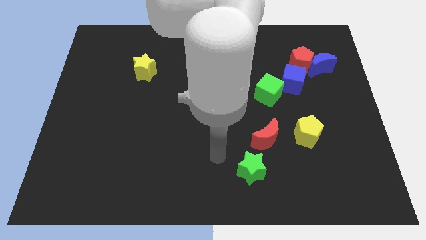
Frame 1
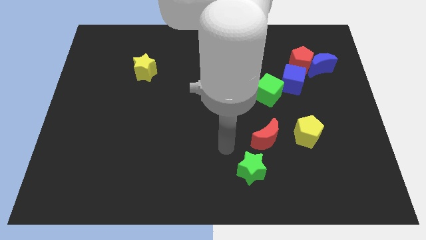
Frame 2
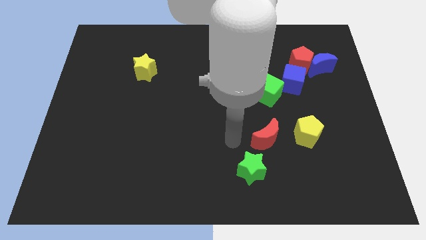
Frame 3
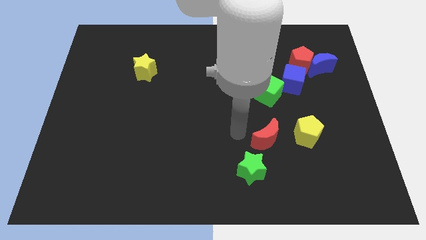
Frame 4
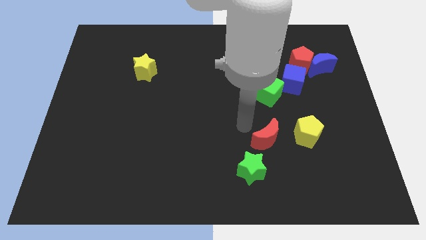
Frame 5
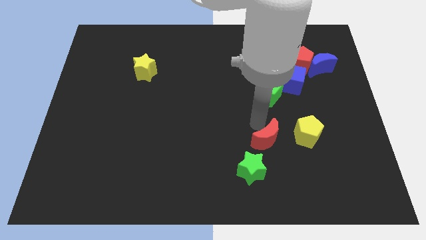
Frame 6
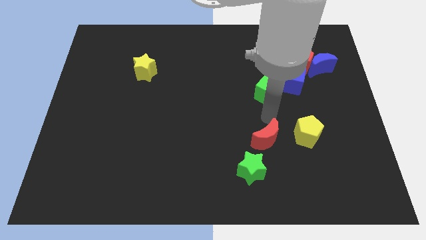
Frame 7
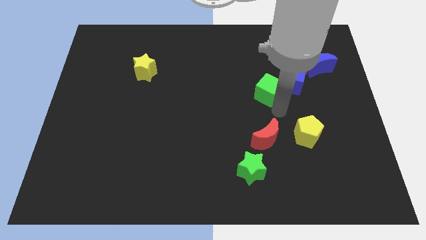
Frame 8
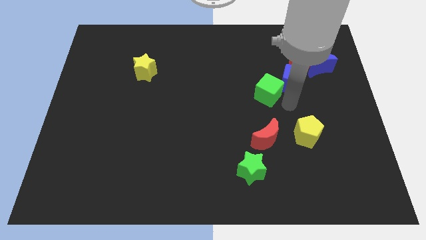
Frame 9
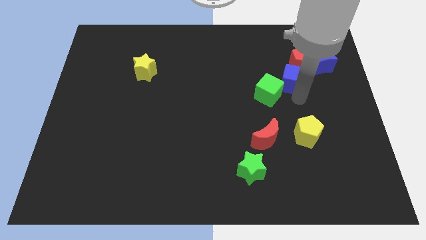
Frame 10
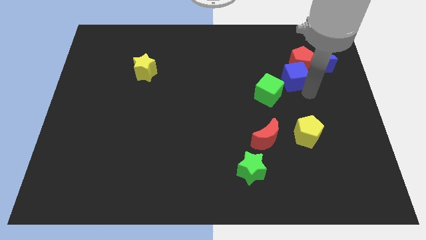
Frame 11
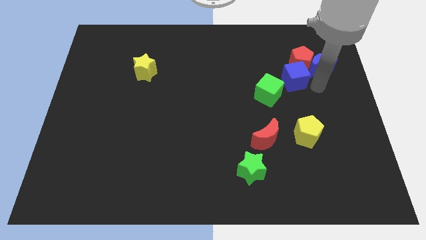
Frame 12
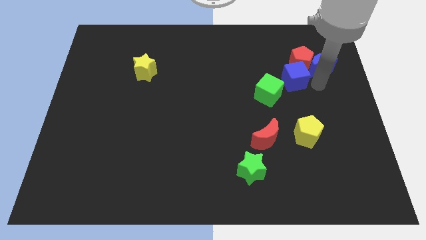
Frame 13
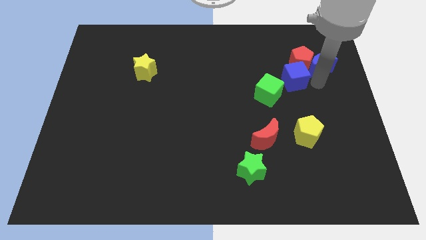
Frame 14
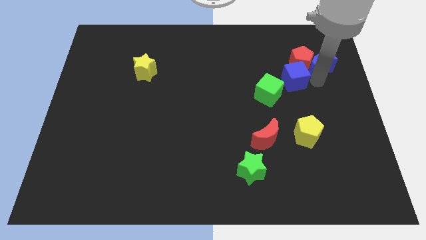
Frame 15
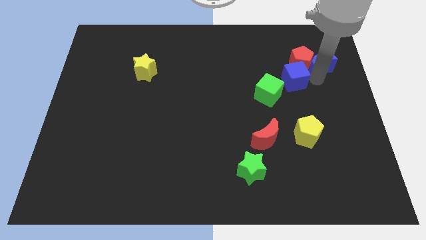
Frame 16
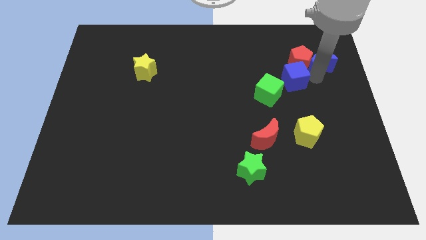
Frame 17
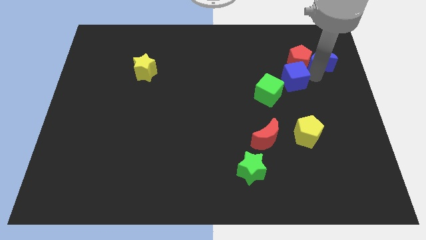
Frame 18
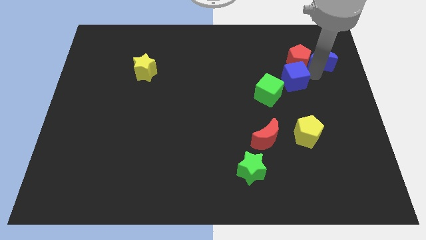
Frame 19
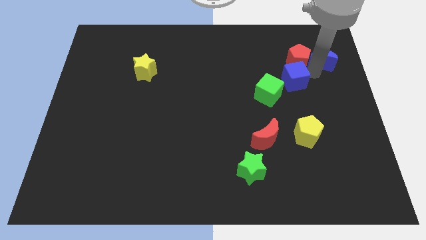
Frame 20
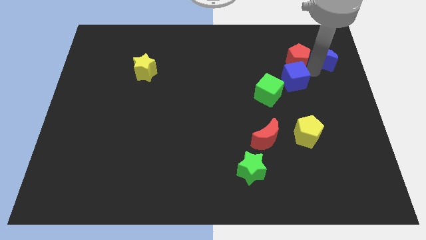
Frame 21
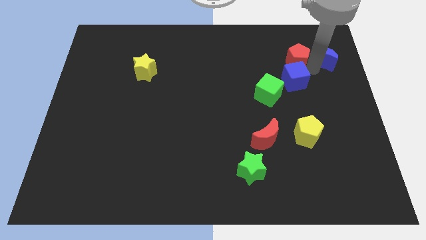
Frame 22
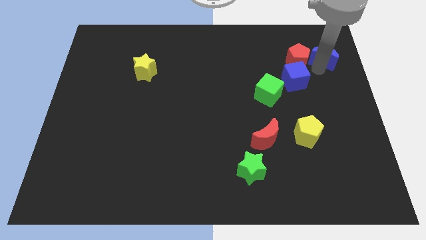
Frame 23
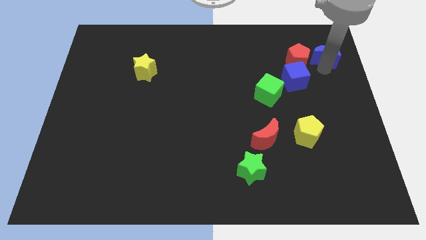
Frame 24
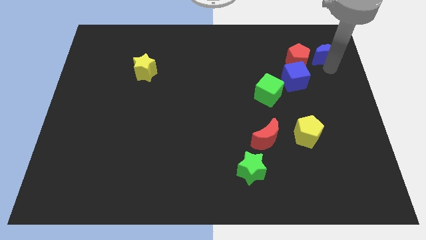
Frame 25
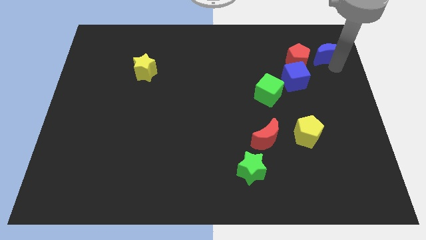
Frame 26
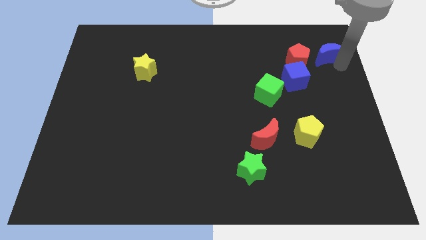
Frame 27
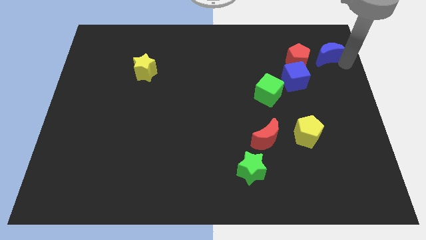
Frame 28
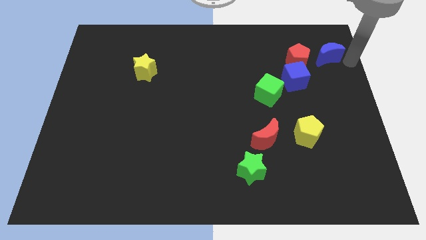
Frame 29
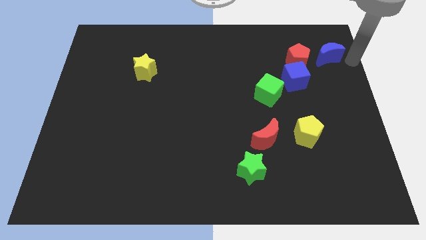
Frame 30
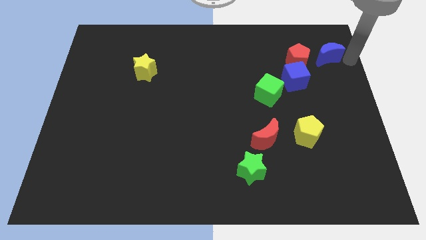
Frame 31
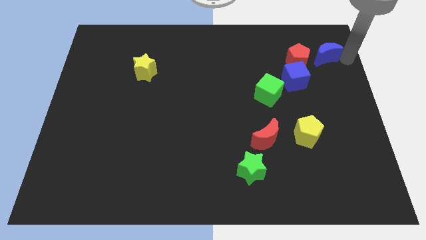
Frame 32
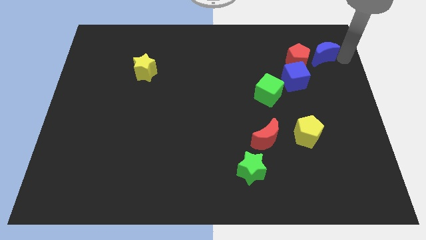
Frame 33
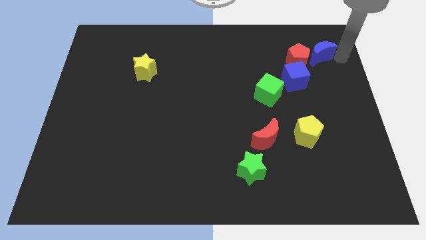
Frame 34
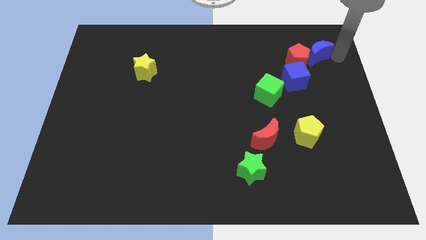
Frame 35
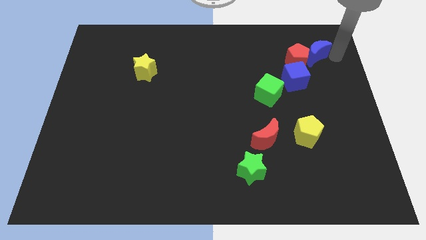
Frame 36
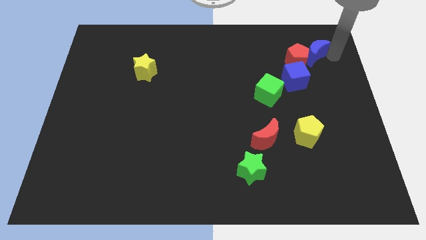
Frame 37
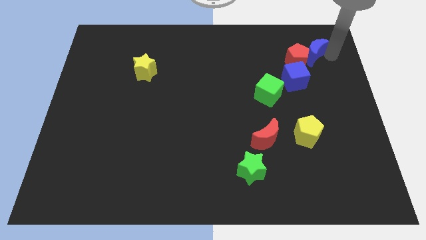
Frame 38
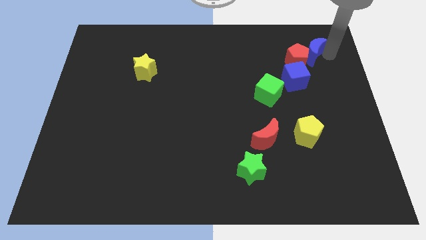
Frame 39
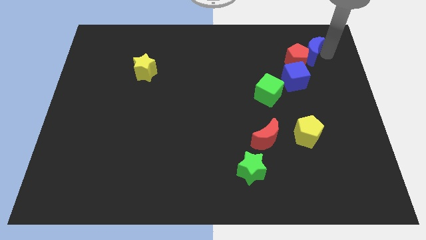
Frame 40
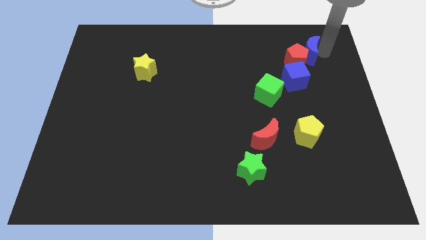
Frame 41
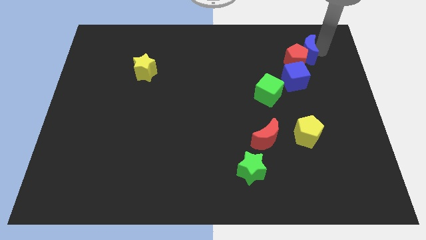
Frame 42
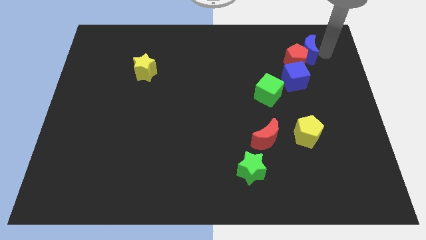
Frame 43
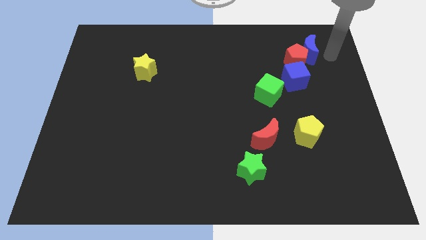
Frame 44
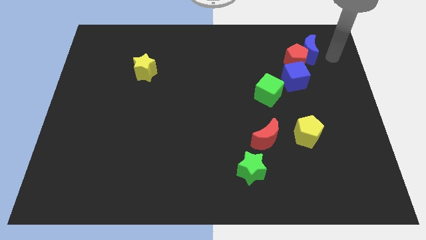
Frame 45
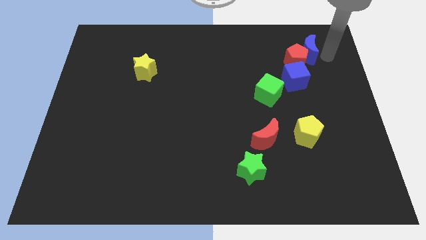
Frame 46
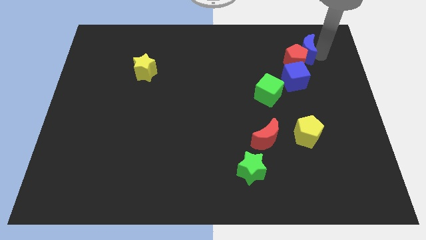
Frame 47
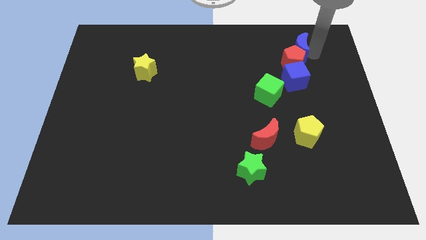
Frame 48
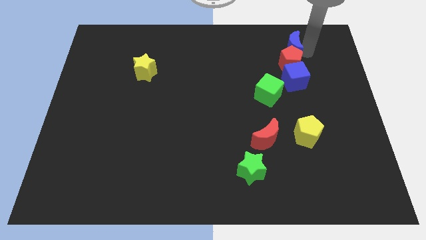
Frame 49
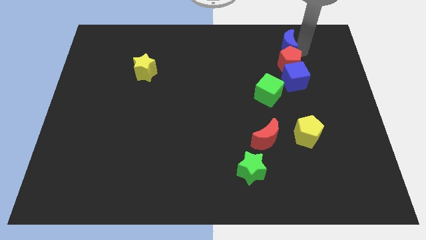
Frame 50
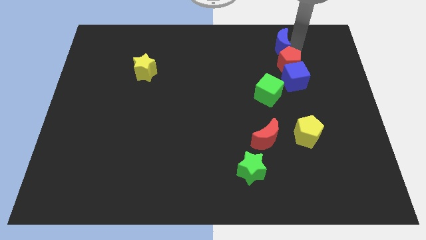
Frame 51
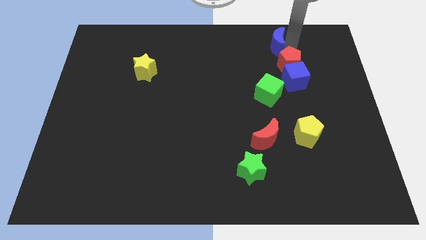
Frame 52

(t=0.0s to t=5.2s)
move the blue moon slightly to the left

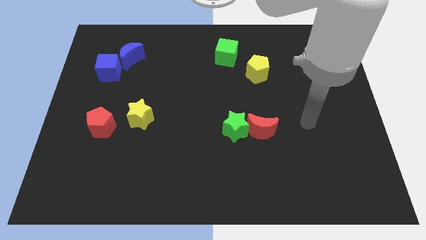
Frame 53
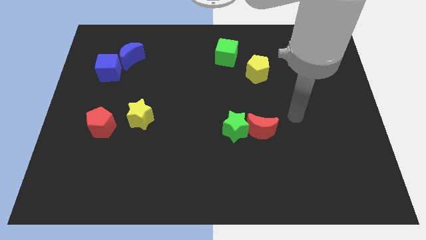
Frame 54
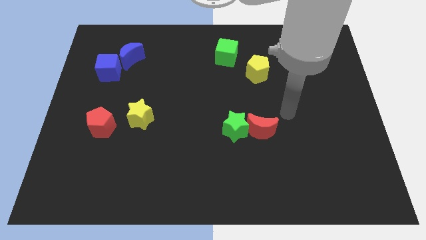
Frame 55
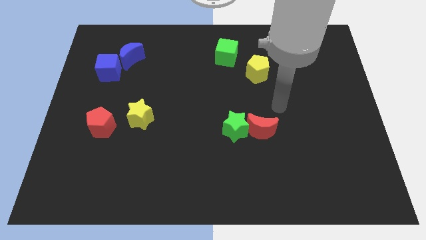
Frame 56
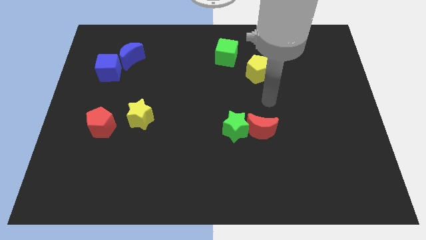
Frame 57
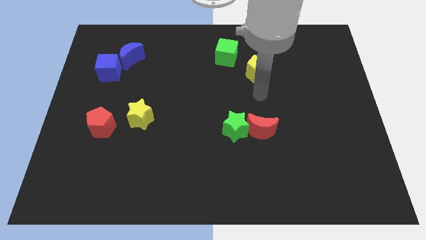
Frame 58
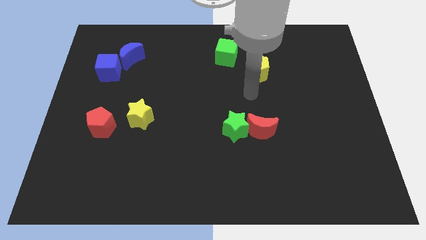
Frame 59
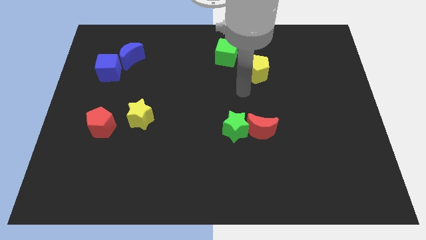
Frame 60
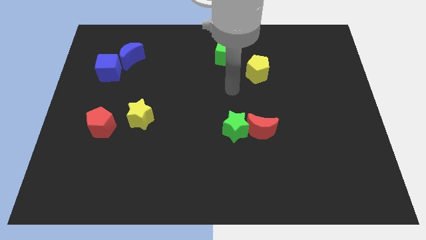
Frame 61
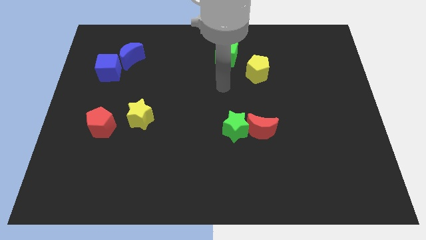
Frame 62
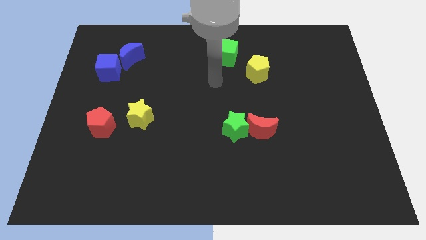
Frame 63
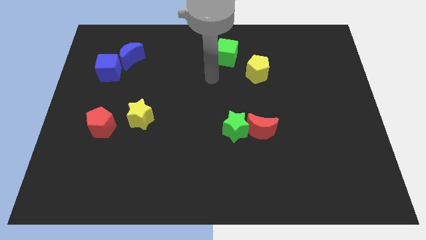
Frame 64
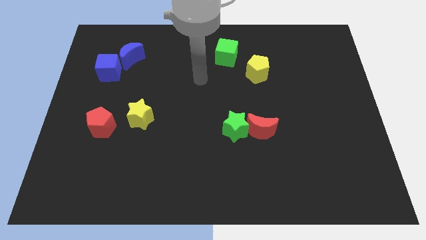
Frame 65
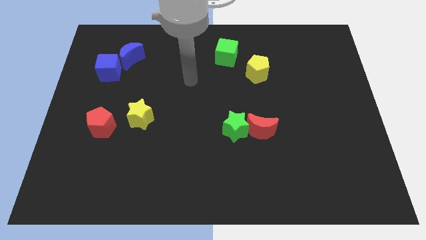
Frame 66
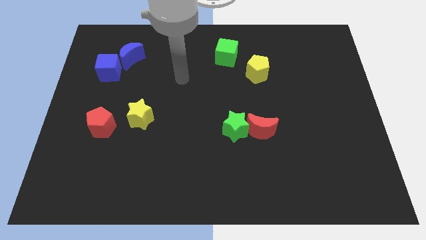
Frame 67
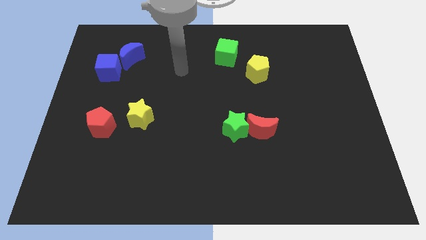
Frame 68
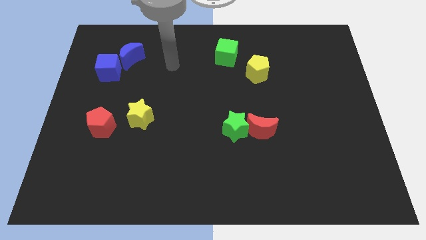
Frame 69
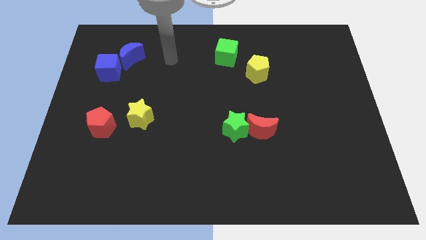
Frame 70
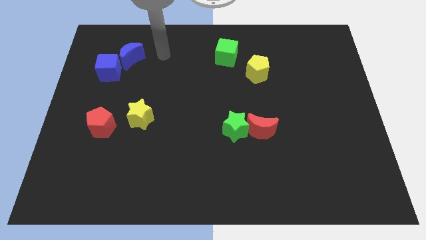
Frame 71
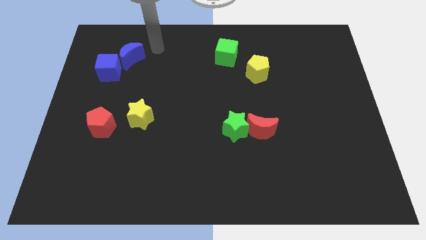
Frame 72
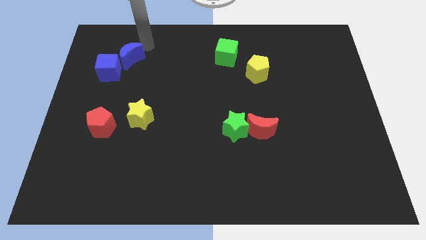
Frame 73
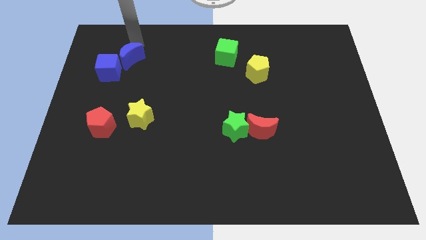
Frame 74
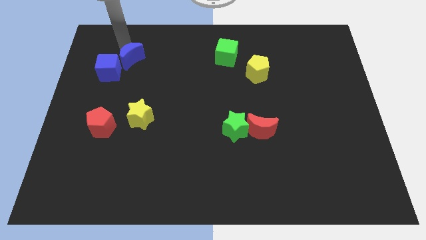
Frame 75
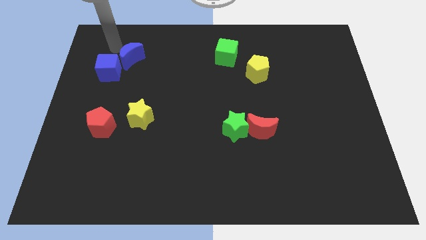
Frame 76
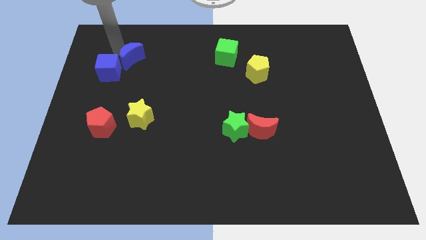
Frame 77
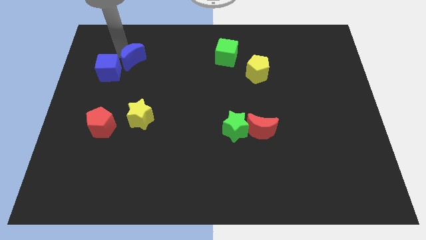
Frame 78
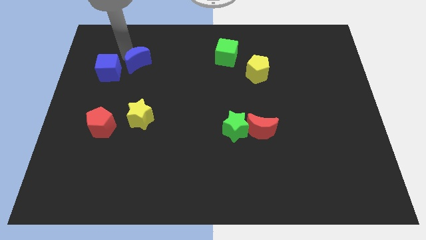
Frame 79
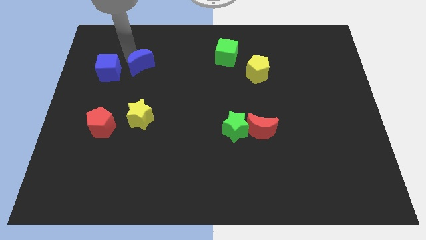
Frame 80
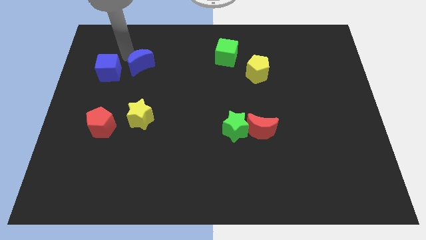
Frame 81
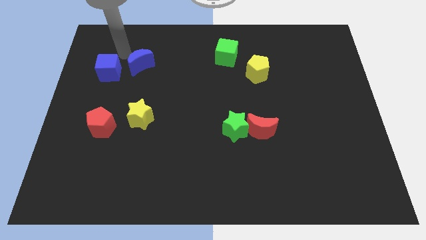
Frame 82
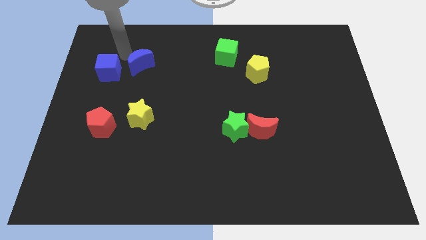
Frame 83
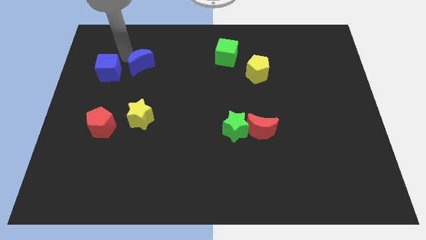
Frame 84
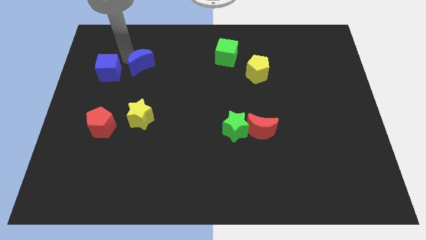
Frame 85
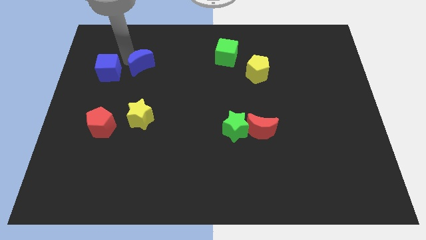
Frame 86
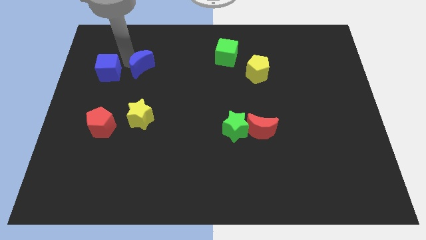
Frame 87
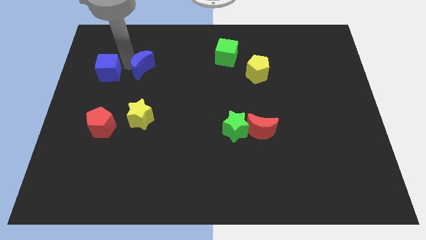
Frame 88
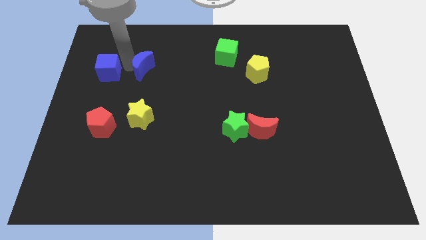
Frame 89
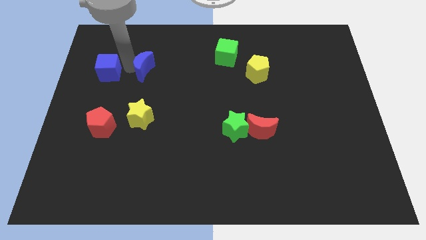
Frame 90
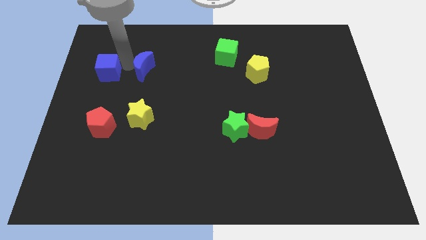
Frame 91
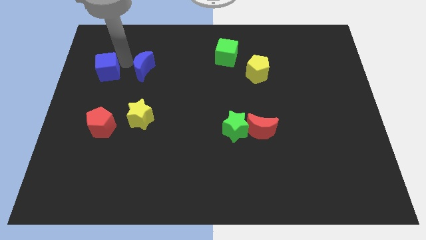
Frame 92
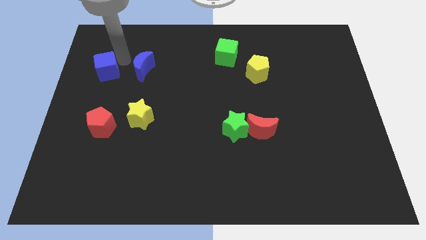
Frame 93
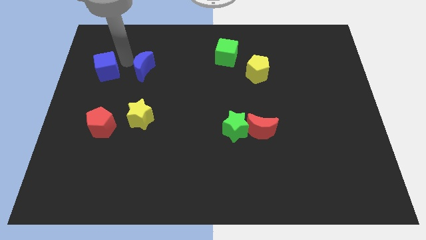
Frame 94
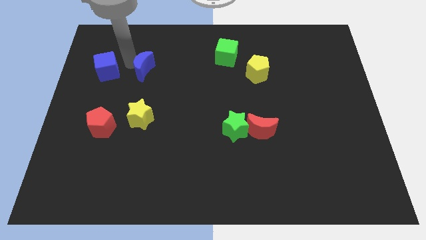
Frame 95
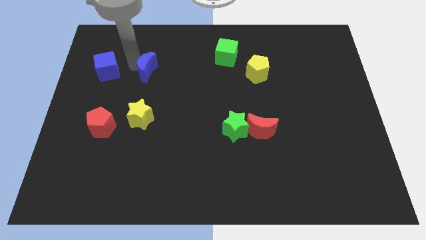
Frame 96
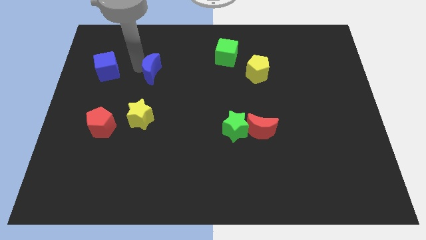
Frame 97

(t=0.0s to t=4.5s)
move the blue moon somewhat down and right
